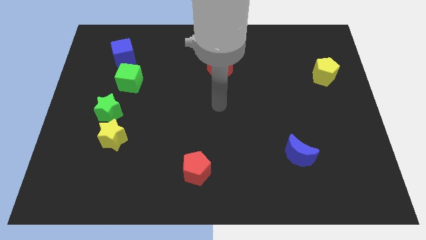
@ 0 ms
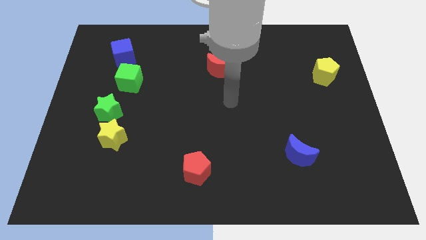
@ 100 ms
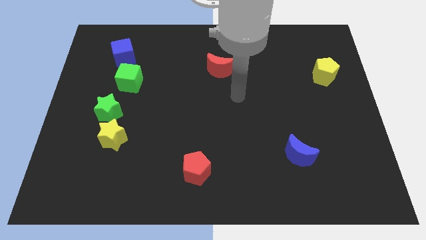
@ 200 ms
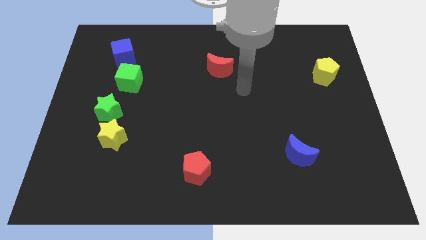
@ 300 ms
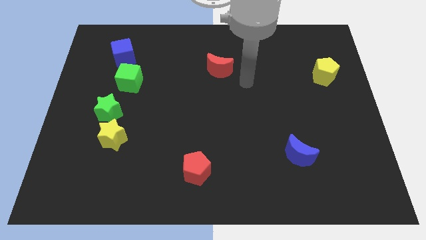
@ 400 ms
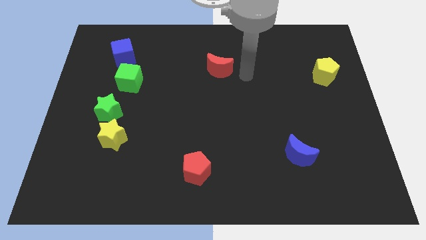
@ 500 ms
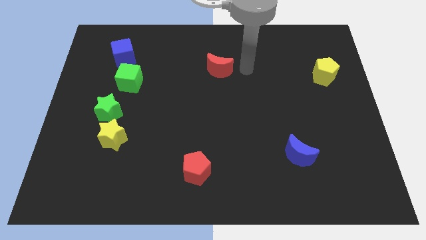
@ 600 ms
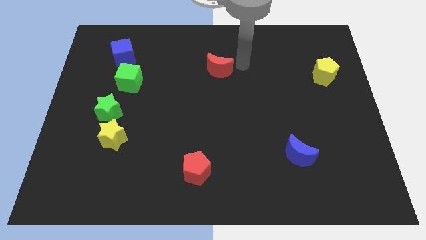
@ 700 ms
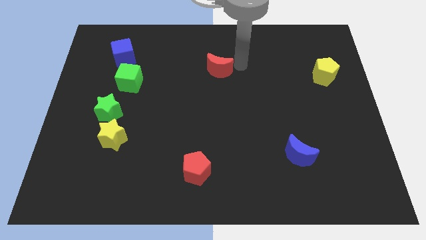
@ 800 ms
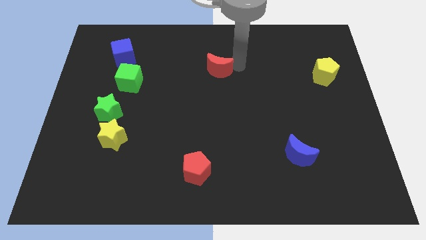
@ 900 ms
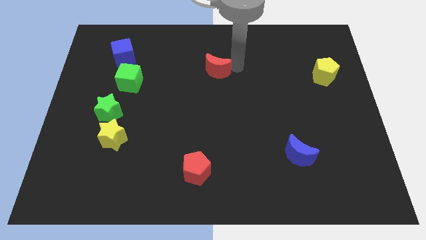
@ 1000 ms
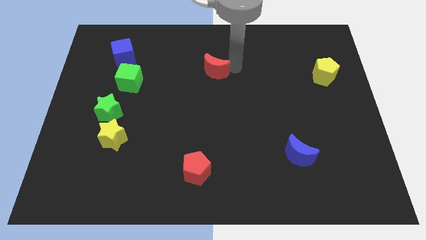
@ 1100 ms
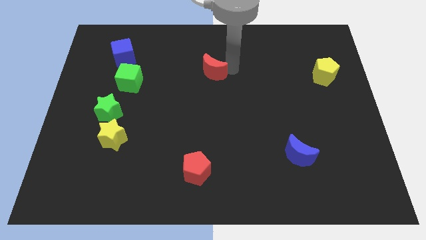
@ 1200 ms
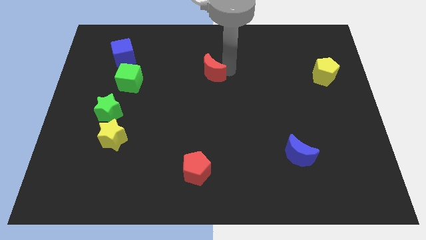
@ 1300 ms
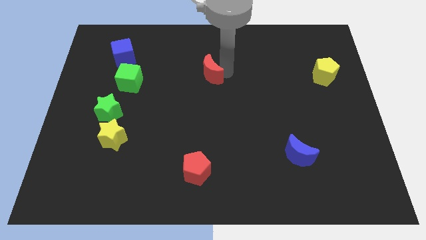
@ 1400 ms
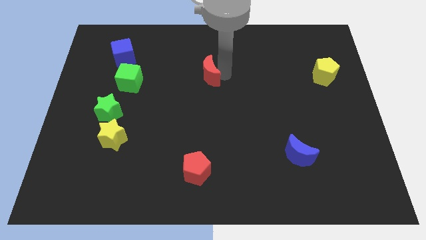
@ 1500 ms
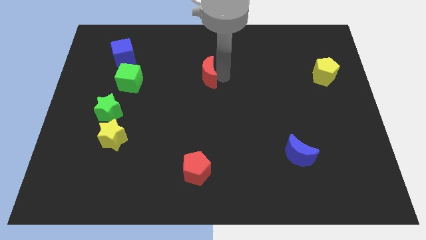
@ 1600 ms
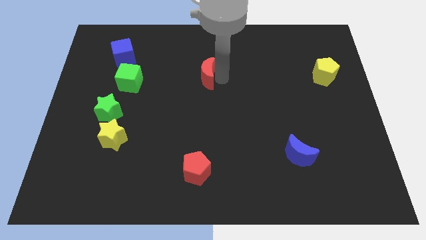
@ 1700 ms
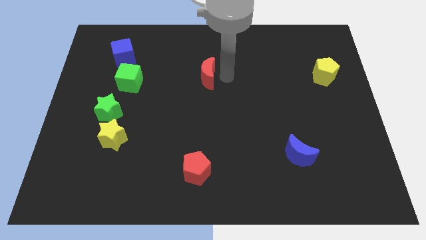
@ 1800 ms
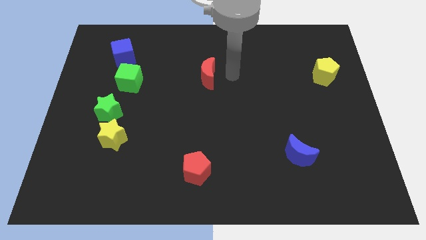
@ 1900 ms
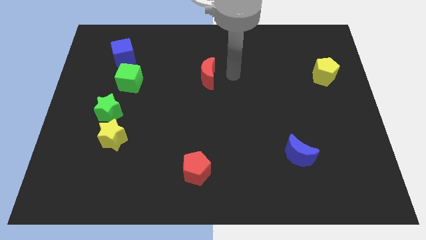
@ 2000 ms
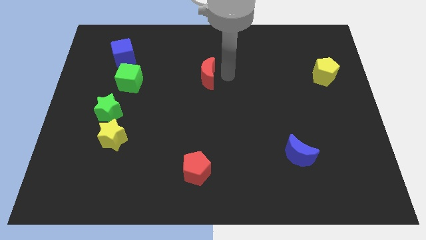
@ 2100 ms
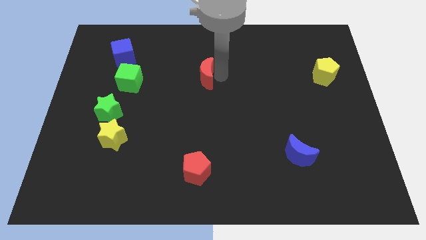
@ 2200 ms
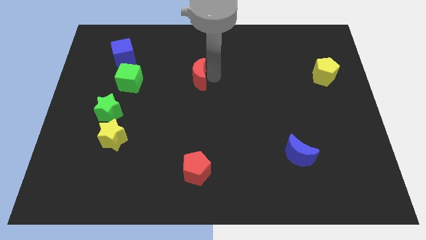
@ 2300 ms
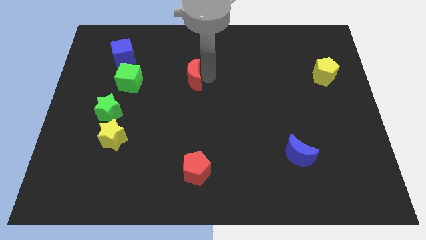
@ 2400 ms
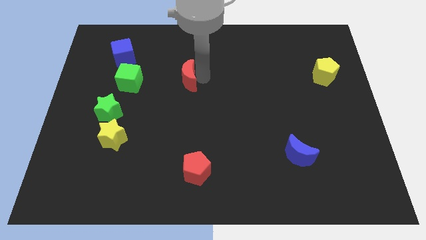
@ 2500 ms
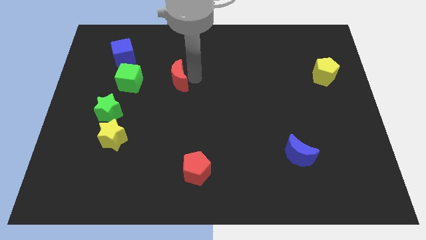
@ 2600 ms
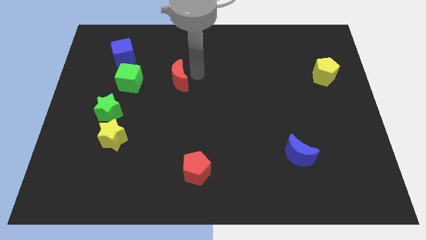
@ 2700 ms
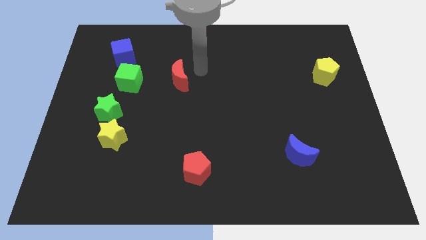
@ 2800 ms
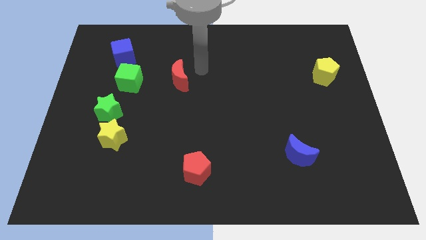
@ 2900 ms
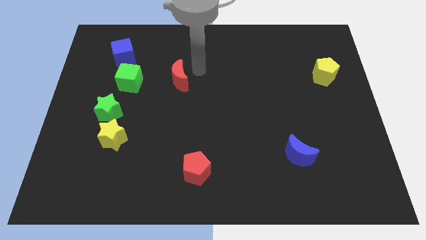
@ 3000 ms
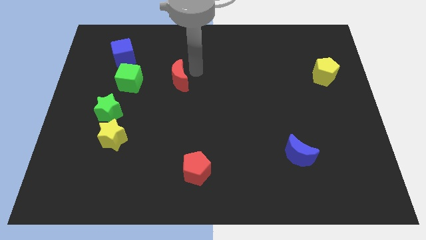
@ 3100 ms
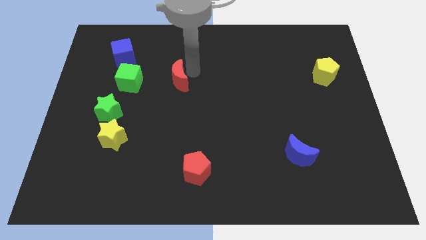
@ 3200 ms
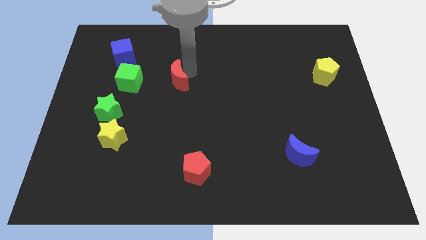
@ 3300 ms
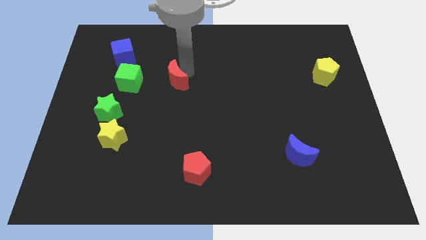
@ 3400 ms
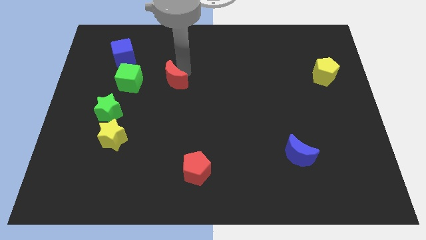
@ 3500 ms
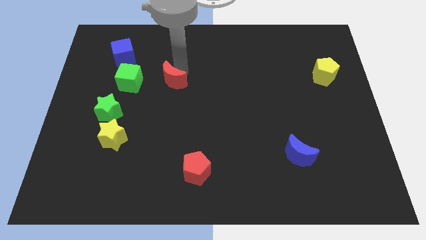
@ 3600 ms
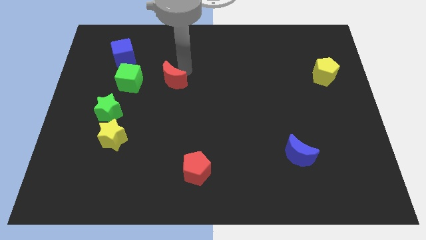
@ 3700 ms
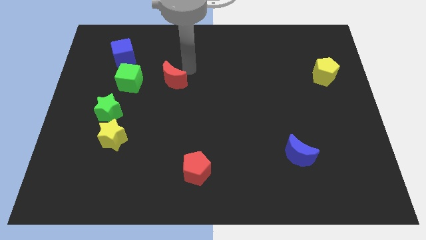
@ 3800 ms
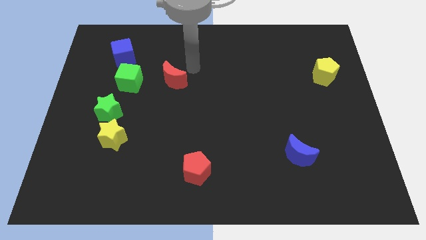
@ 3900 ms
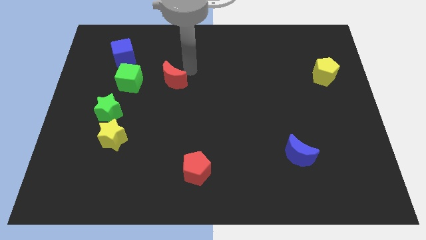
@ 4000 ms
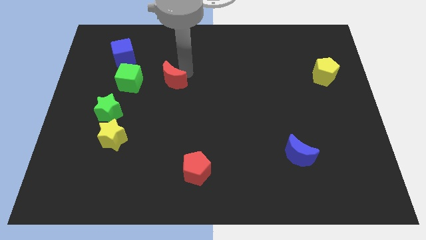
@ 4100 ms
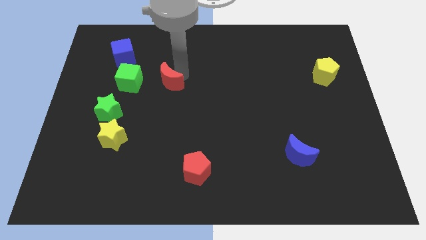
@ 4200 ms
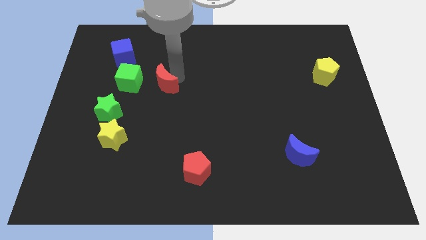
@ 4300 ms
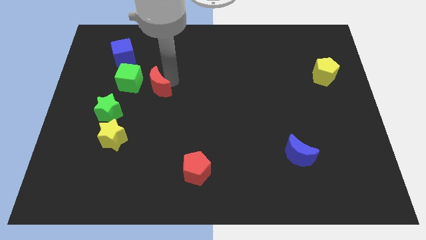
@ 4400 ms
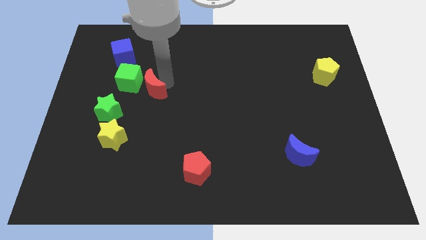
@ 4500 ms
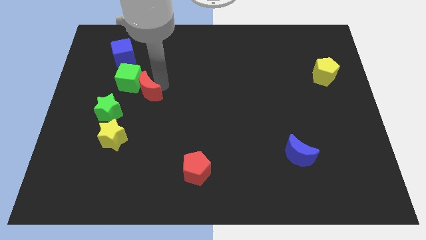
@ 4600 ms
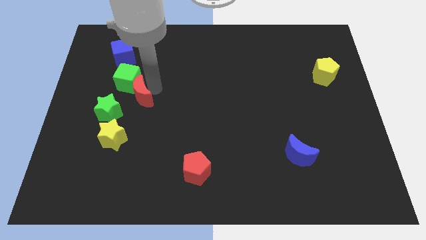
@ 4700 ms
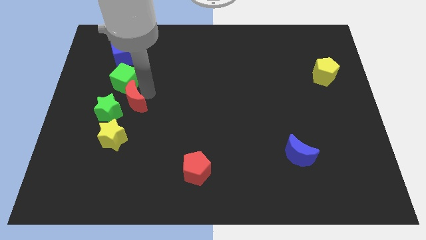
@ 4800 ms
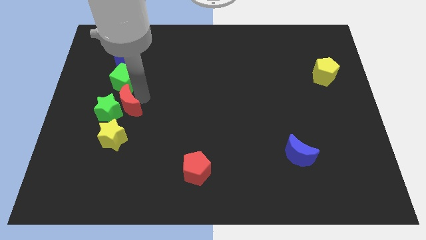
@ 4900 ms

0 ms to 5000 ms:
push the red moon to the green star

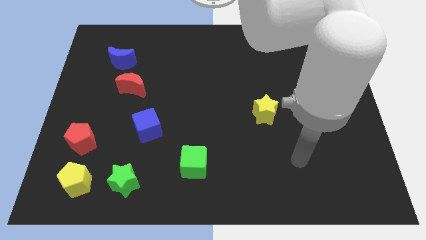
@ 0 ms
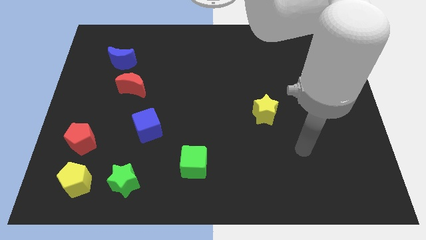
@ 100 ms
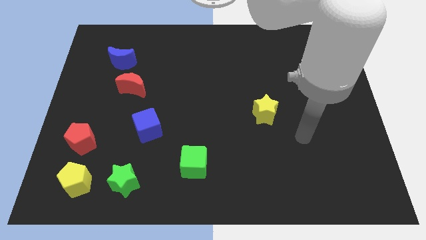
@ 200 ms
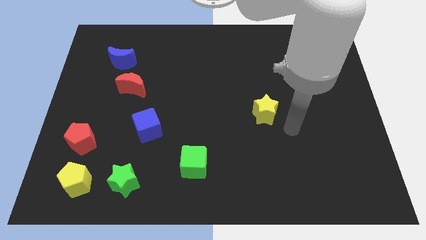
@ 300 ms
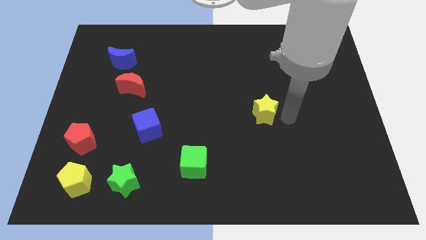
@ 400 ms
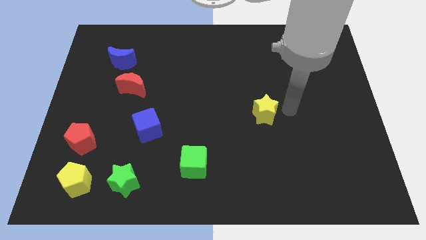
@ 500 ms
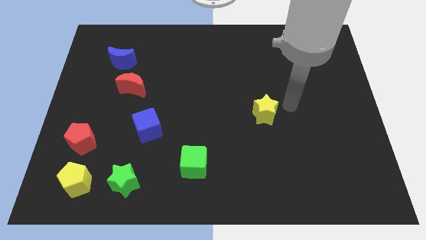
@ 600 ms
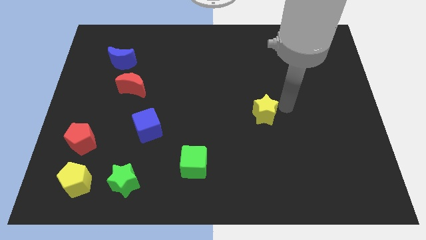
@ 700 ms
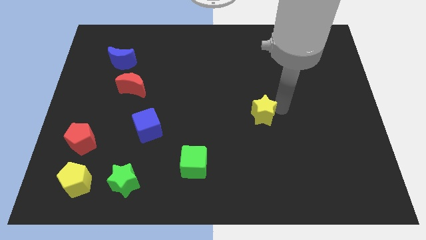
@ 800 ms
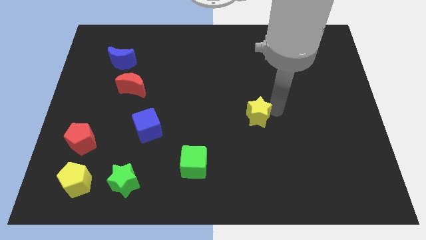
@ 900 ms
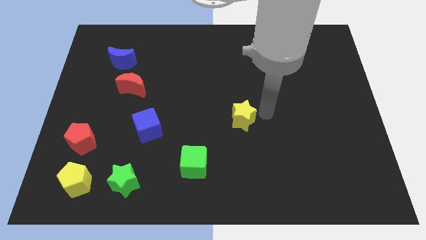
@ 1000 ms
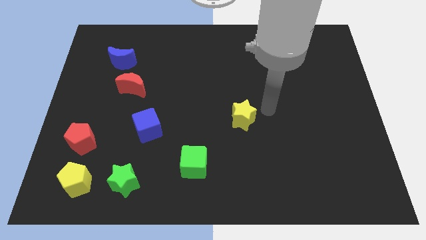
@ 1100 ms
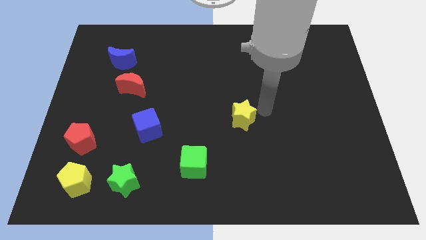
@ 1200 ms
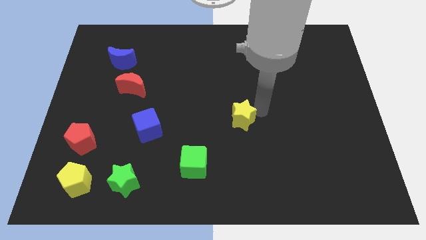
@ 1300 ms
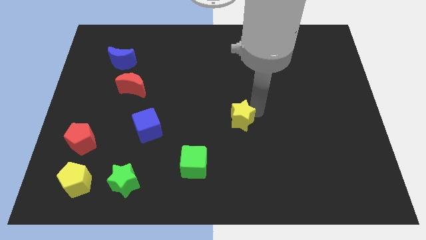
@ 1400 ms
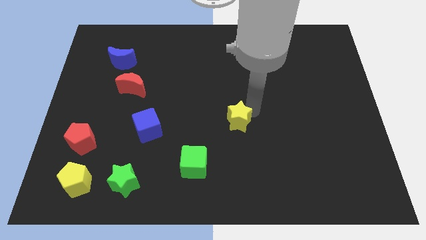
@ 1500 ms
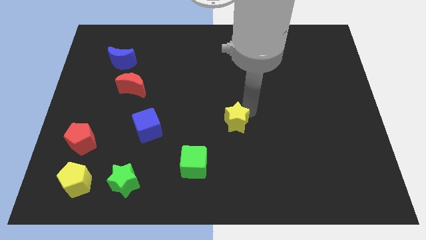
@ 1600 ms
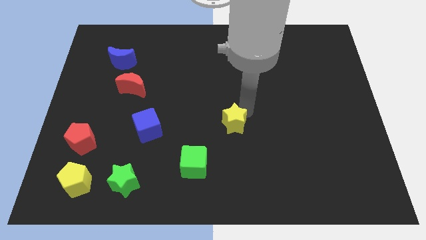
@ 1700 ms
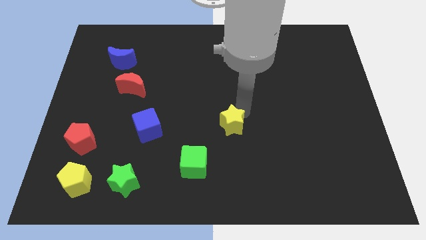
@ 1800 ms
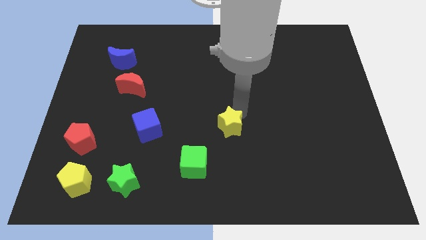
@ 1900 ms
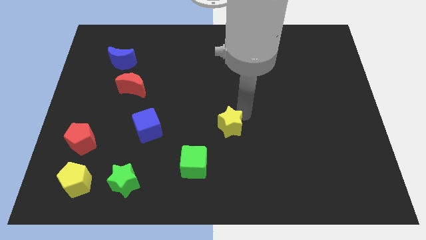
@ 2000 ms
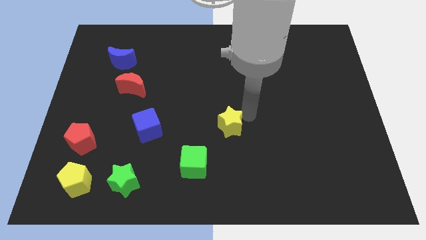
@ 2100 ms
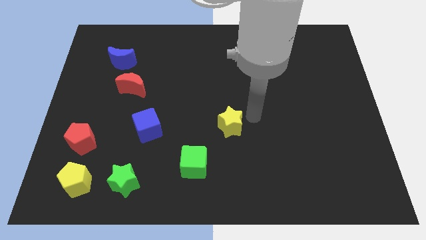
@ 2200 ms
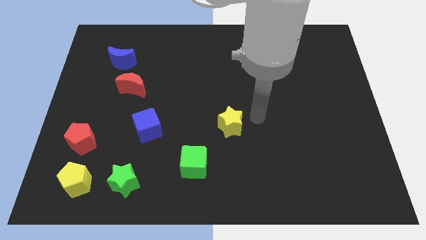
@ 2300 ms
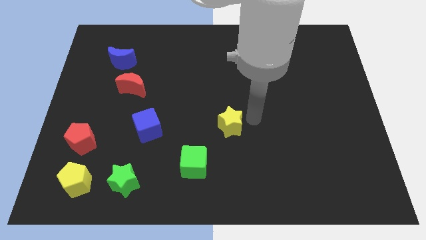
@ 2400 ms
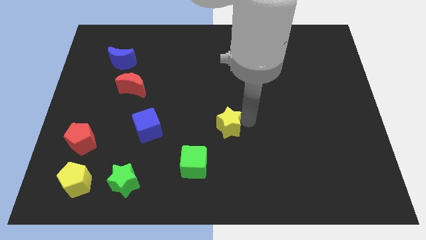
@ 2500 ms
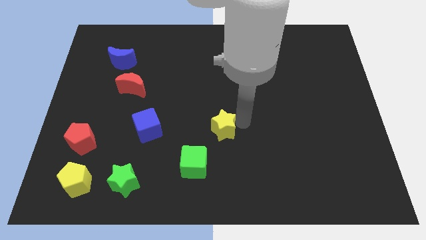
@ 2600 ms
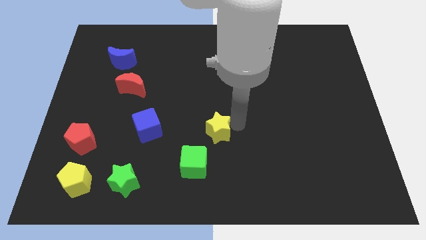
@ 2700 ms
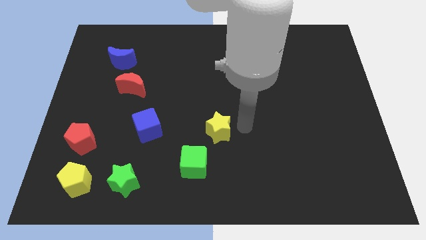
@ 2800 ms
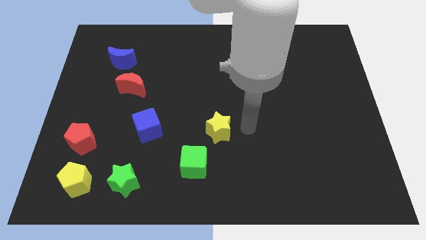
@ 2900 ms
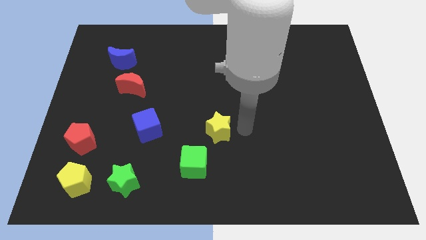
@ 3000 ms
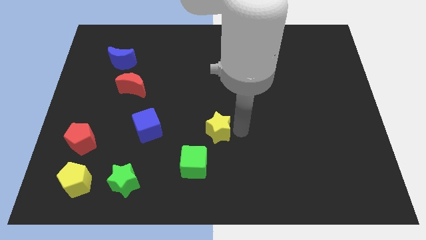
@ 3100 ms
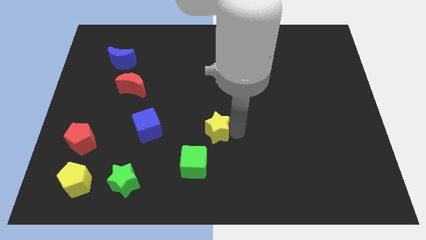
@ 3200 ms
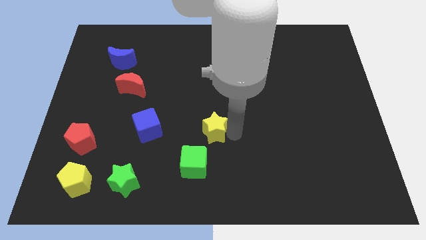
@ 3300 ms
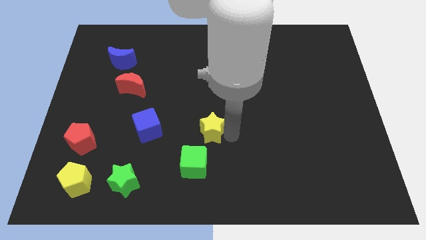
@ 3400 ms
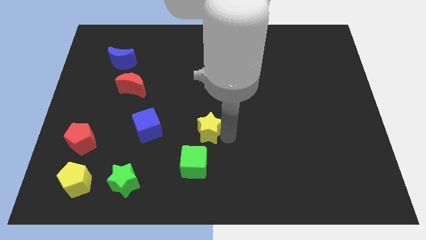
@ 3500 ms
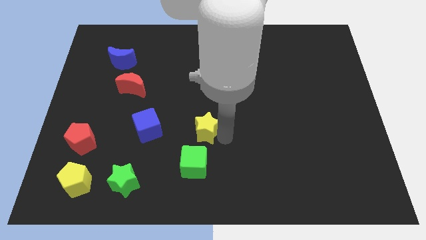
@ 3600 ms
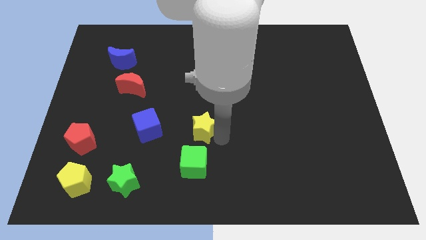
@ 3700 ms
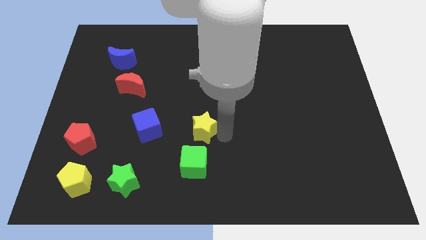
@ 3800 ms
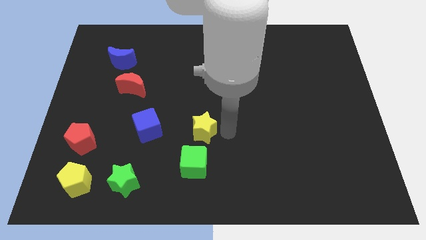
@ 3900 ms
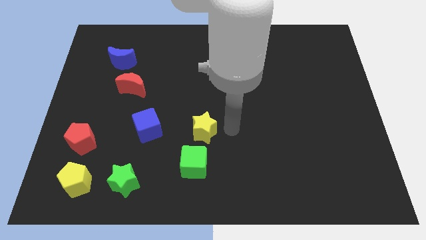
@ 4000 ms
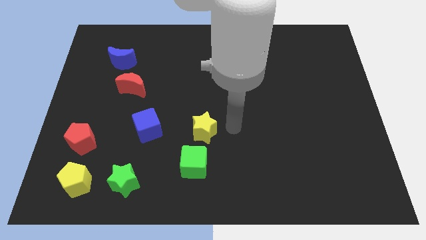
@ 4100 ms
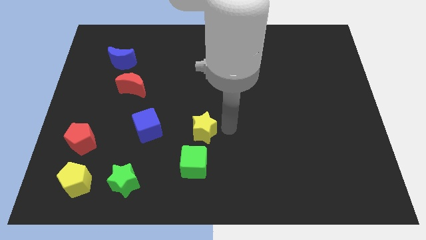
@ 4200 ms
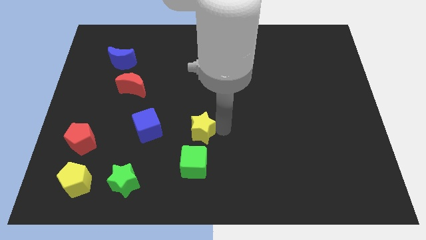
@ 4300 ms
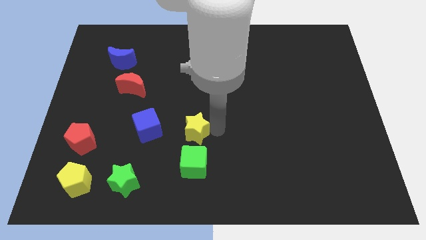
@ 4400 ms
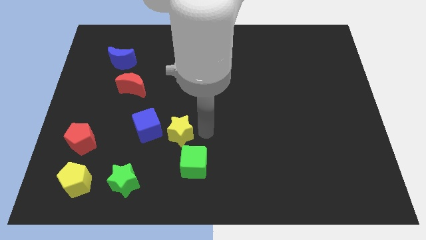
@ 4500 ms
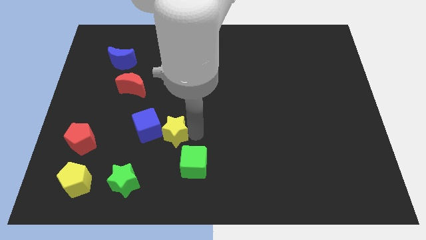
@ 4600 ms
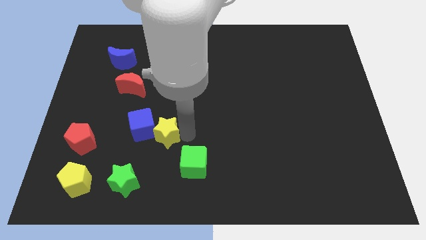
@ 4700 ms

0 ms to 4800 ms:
put the yellow star towards the blue cube
